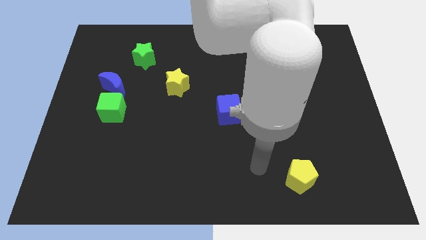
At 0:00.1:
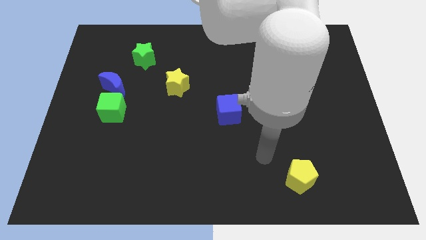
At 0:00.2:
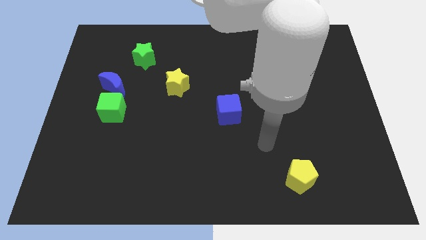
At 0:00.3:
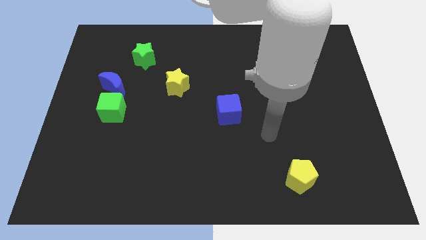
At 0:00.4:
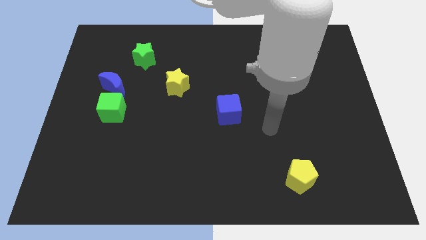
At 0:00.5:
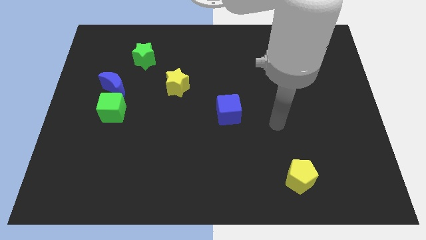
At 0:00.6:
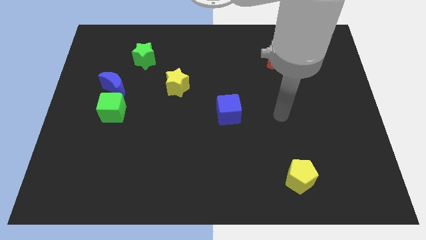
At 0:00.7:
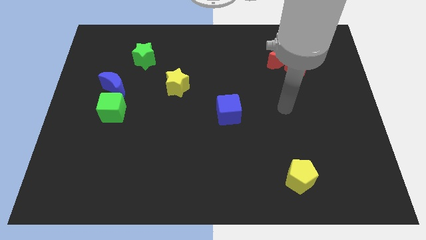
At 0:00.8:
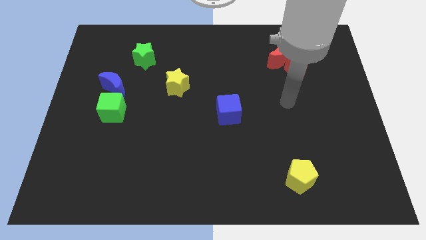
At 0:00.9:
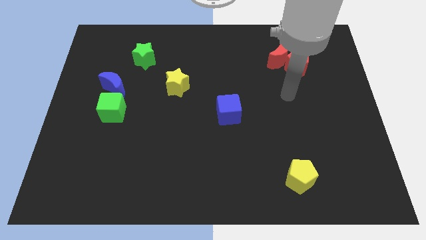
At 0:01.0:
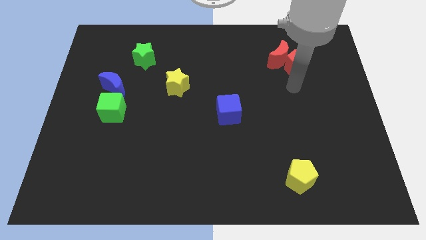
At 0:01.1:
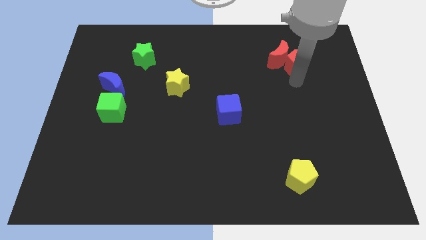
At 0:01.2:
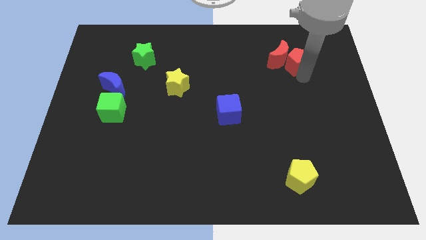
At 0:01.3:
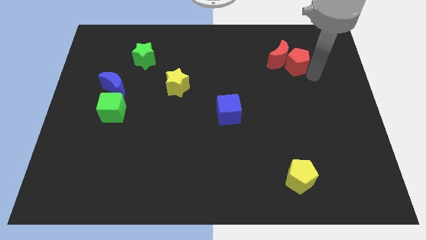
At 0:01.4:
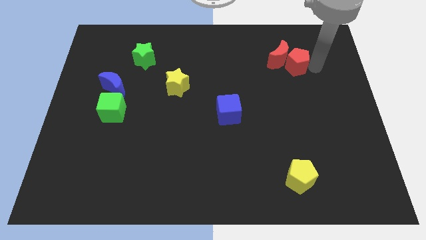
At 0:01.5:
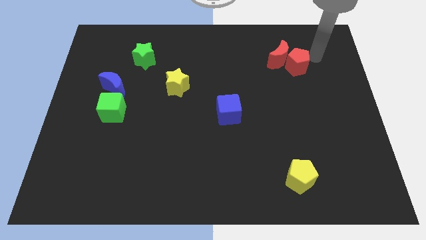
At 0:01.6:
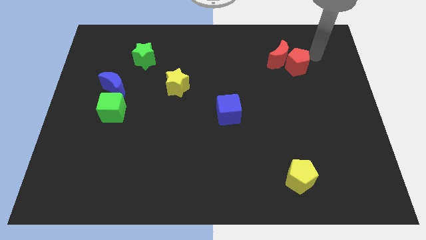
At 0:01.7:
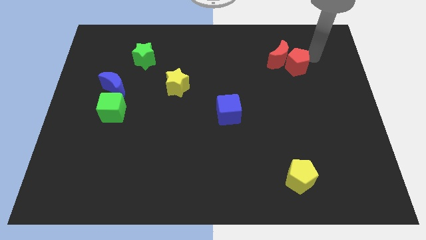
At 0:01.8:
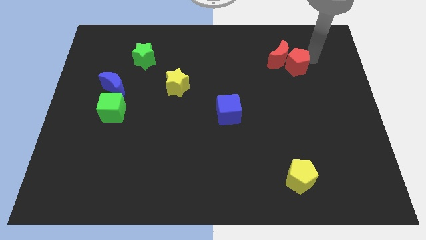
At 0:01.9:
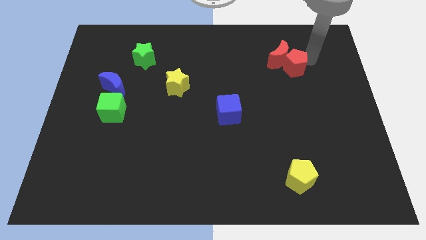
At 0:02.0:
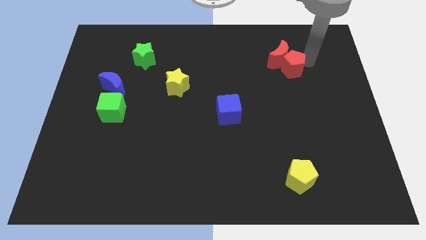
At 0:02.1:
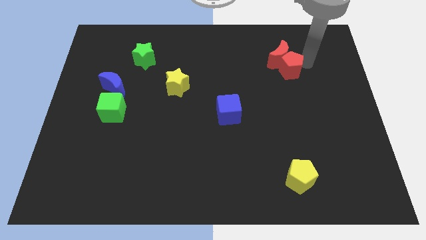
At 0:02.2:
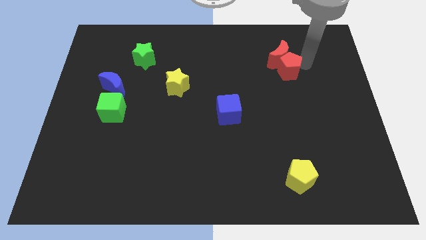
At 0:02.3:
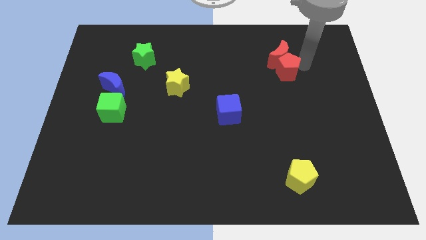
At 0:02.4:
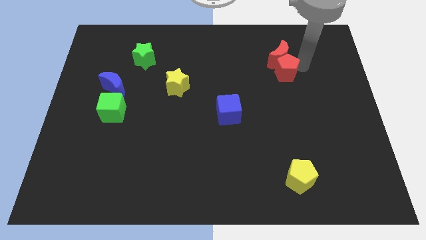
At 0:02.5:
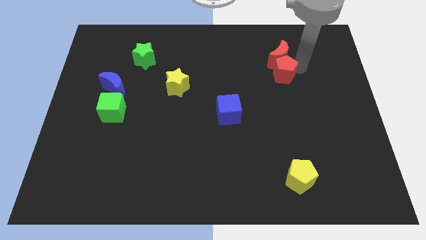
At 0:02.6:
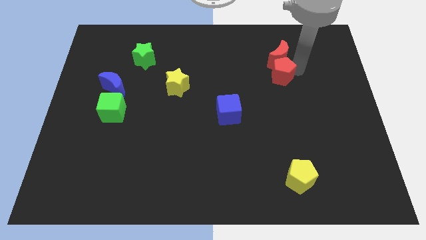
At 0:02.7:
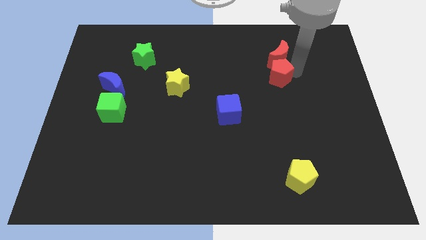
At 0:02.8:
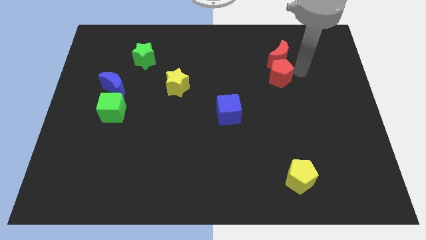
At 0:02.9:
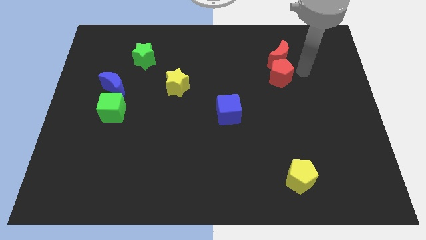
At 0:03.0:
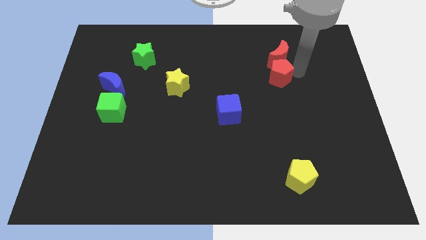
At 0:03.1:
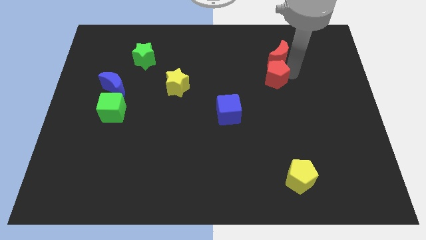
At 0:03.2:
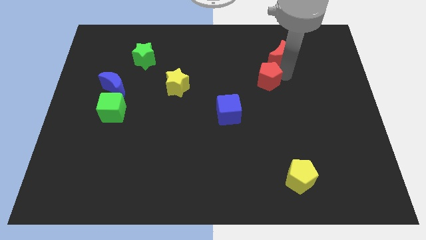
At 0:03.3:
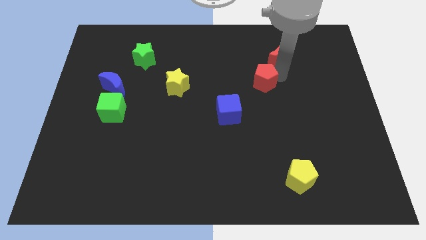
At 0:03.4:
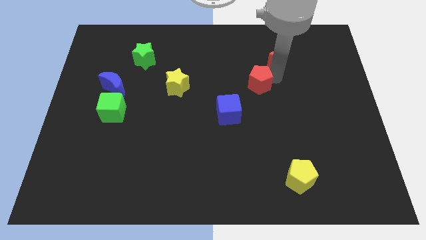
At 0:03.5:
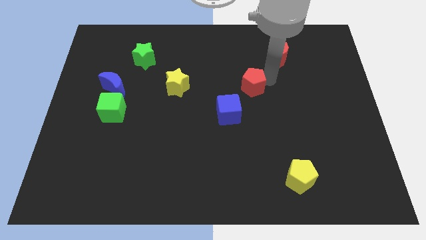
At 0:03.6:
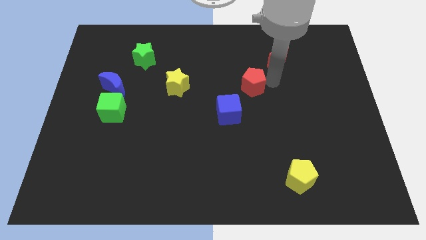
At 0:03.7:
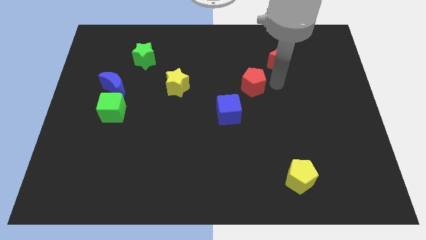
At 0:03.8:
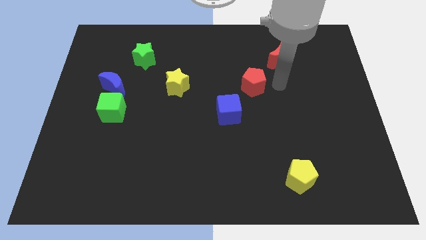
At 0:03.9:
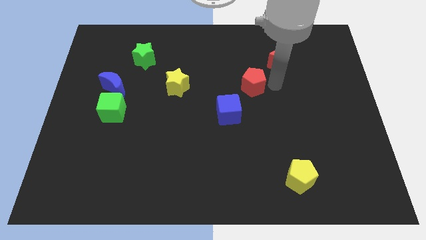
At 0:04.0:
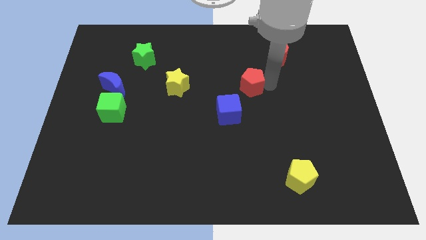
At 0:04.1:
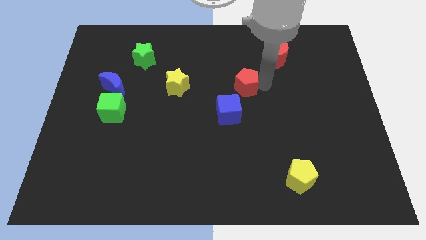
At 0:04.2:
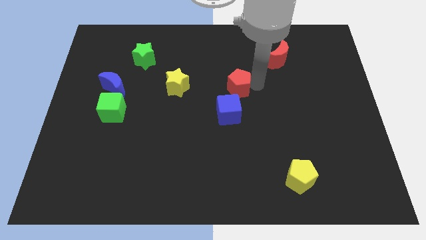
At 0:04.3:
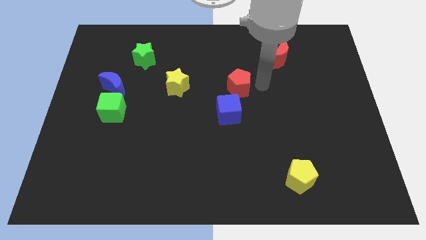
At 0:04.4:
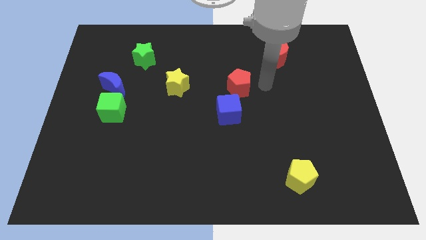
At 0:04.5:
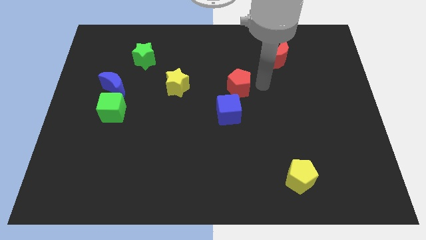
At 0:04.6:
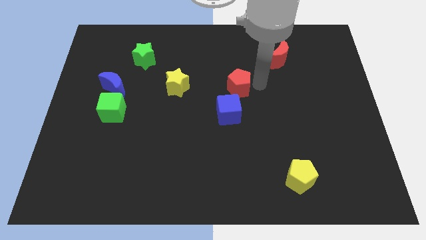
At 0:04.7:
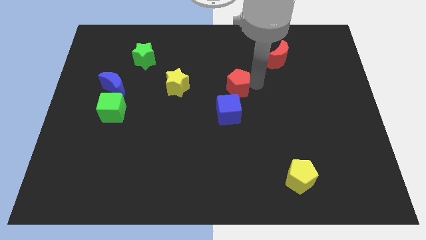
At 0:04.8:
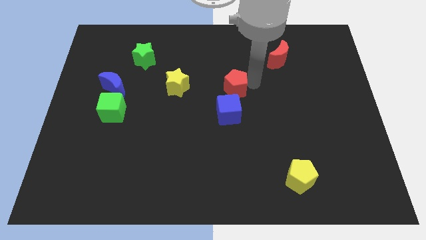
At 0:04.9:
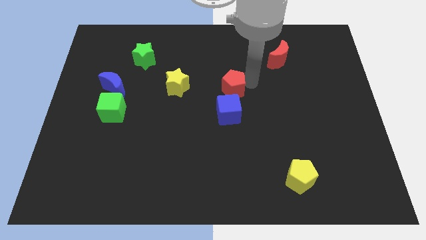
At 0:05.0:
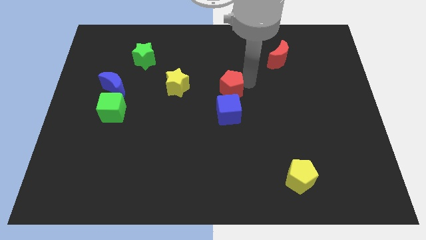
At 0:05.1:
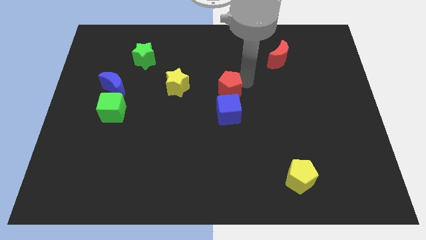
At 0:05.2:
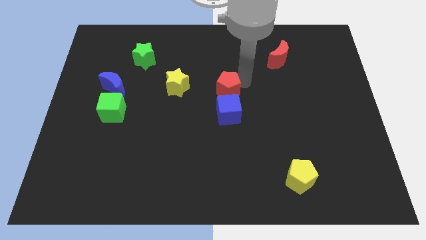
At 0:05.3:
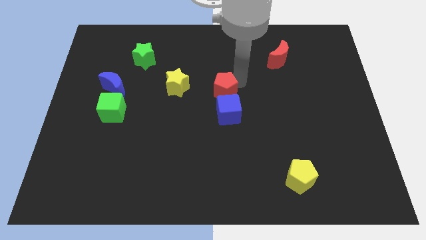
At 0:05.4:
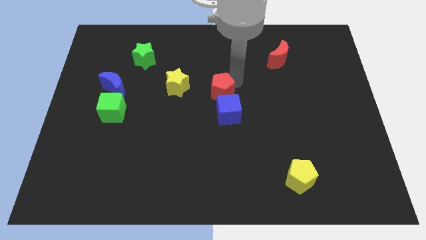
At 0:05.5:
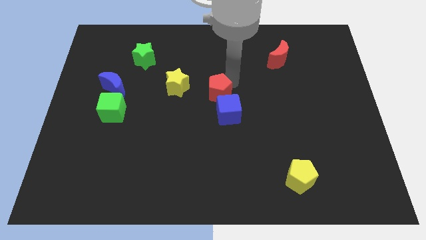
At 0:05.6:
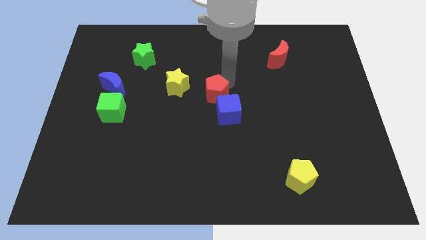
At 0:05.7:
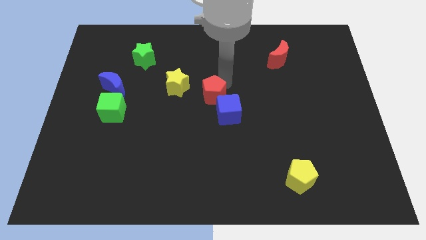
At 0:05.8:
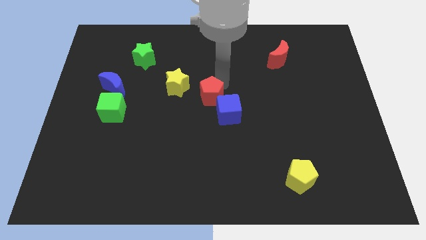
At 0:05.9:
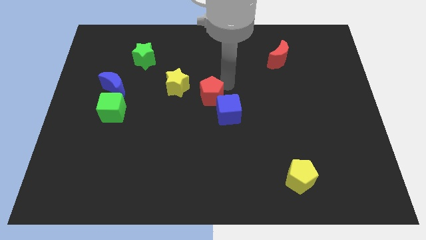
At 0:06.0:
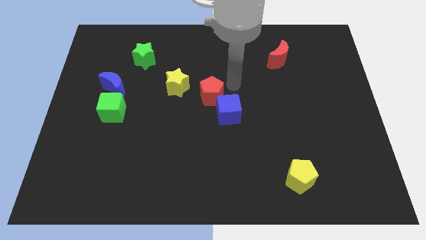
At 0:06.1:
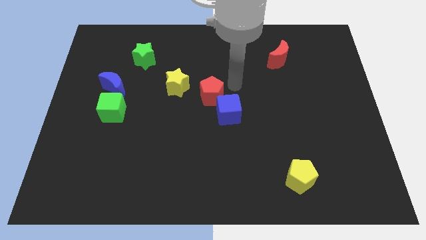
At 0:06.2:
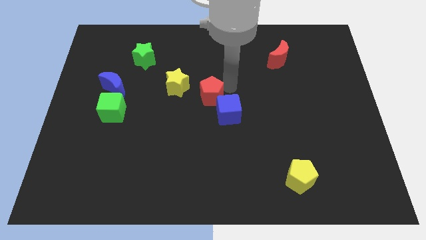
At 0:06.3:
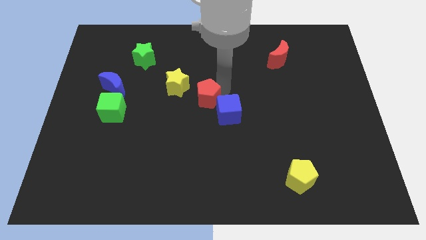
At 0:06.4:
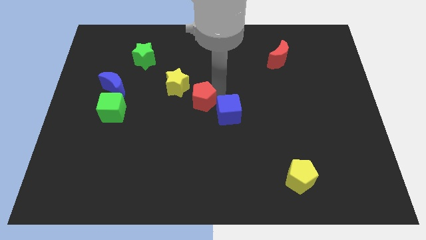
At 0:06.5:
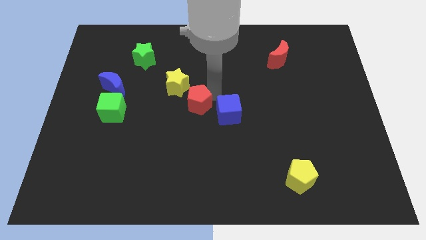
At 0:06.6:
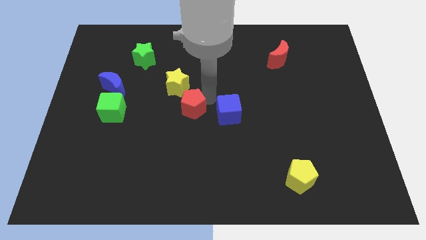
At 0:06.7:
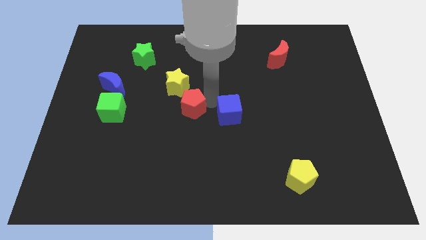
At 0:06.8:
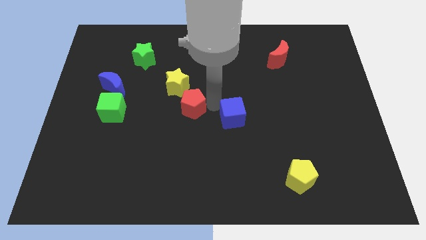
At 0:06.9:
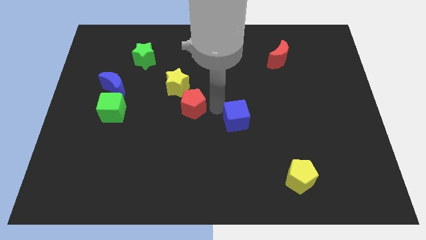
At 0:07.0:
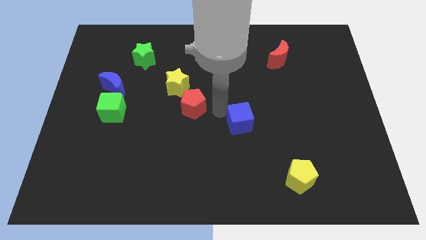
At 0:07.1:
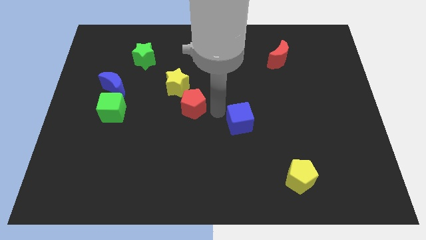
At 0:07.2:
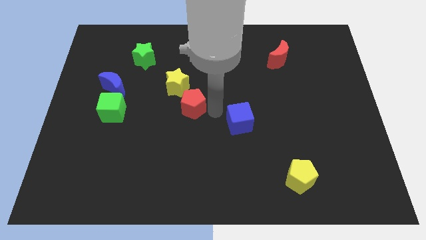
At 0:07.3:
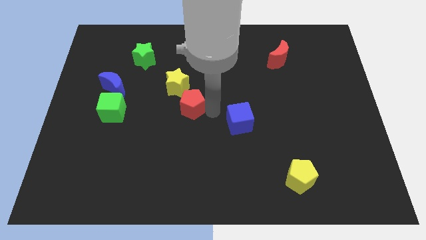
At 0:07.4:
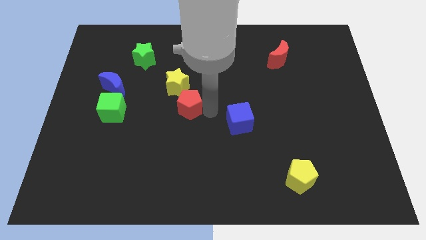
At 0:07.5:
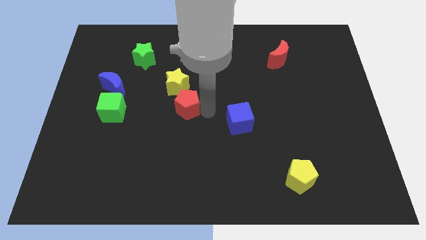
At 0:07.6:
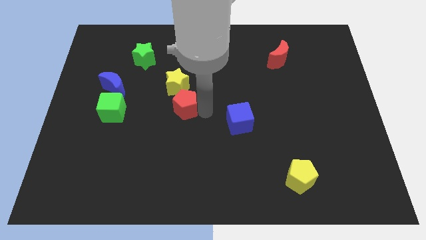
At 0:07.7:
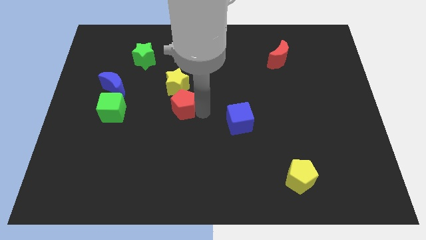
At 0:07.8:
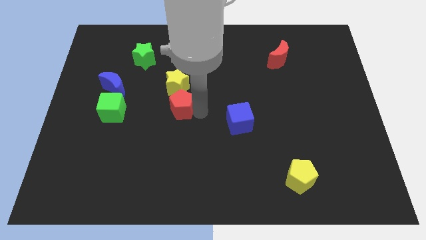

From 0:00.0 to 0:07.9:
push the red pentagon right of the green cube
